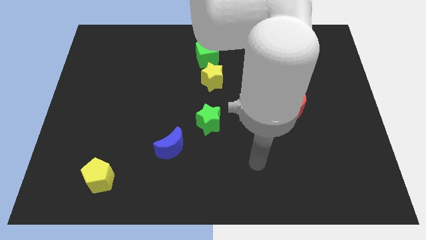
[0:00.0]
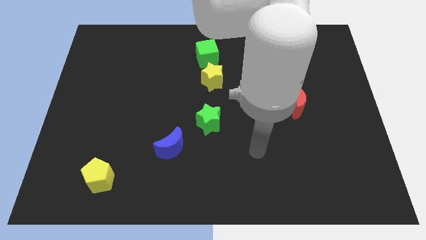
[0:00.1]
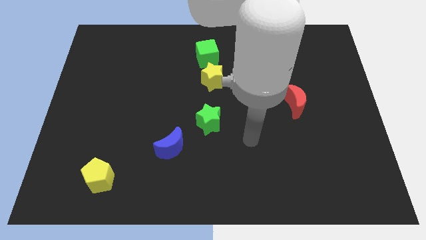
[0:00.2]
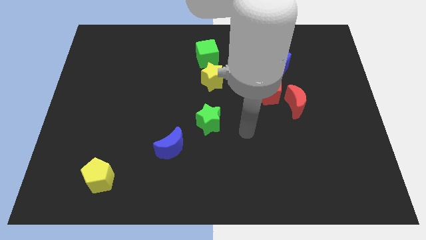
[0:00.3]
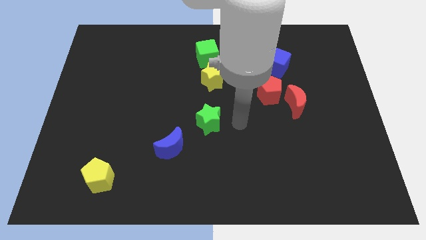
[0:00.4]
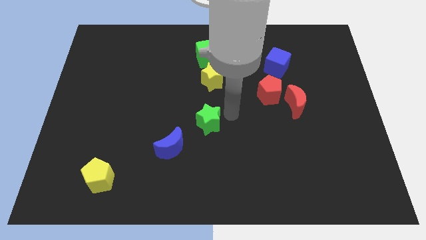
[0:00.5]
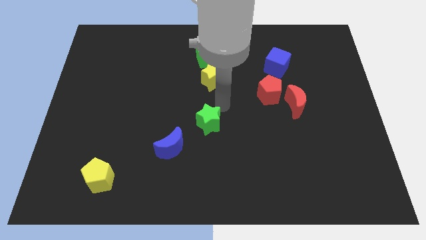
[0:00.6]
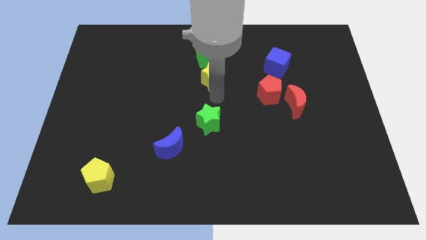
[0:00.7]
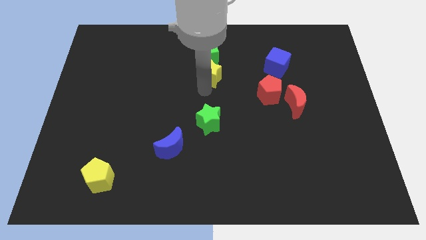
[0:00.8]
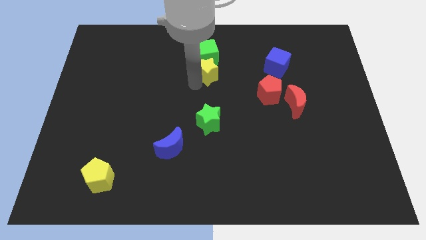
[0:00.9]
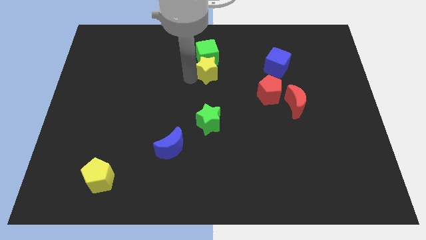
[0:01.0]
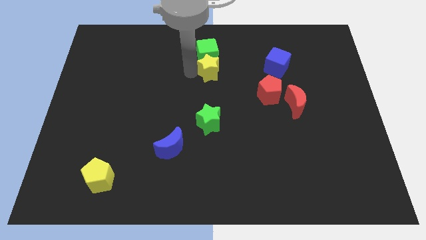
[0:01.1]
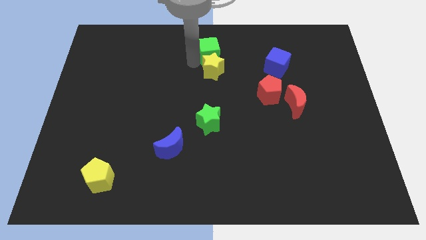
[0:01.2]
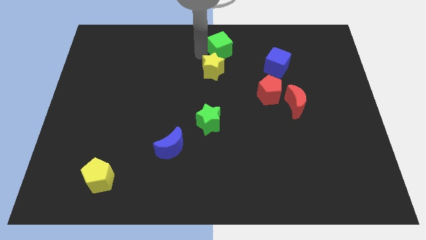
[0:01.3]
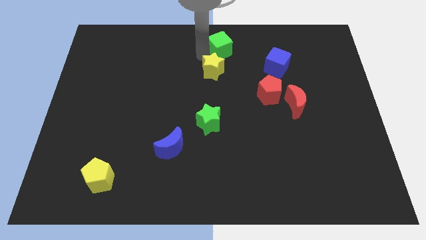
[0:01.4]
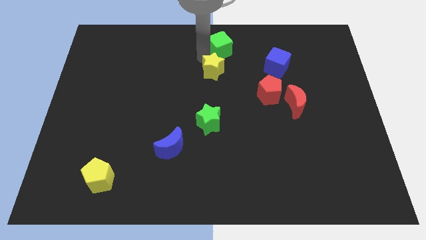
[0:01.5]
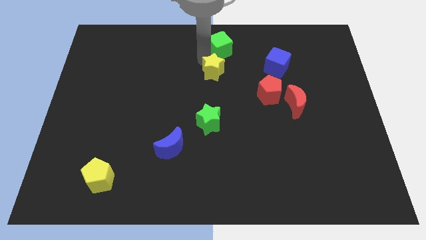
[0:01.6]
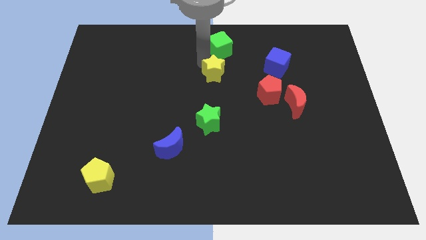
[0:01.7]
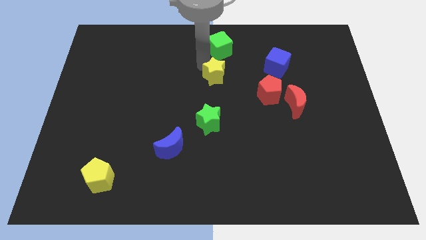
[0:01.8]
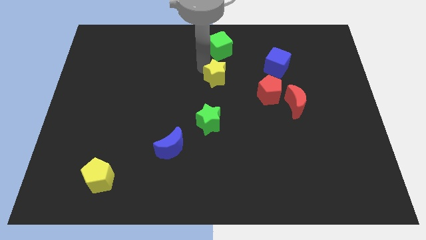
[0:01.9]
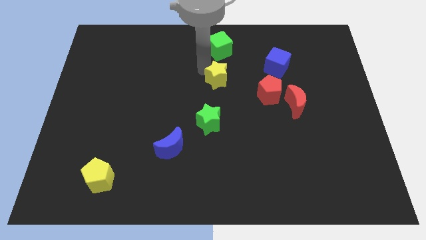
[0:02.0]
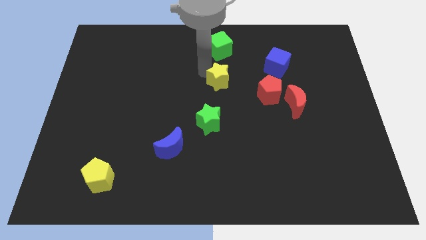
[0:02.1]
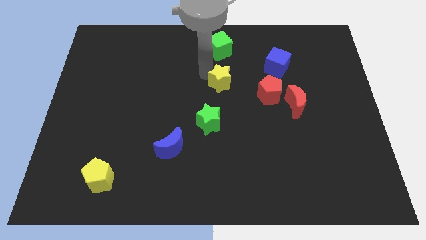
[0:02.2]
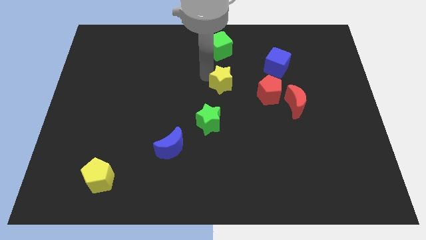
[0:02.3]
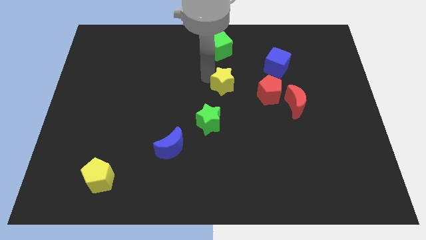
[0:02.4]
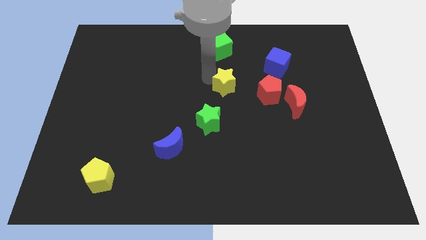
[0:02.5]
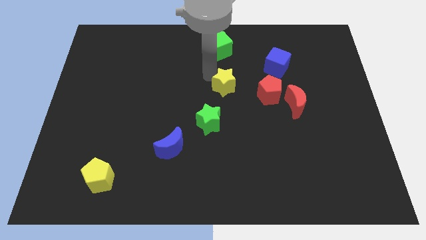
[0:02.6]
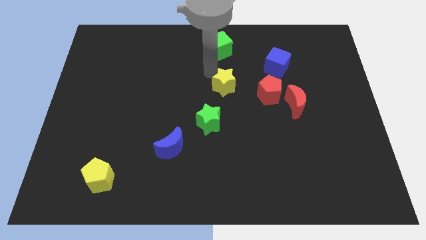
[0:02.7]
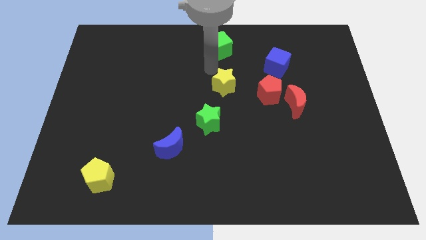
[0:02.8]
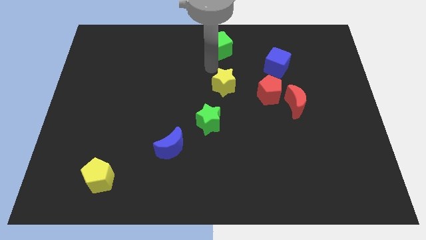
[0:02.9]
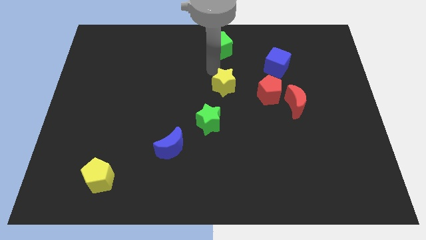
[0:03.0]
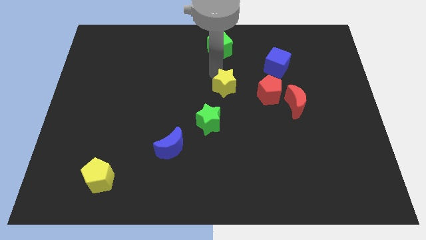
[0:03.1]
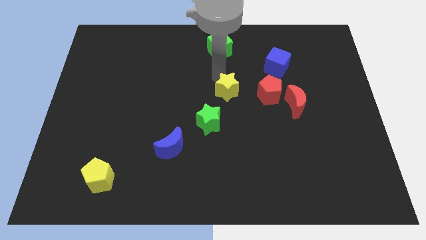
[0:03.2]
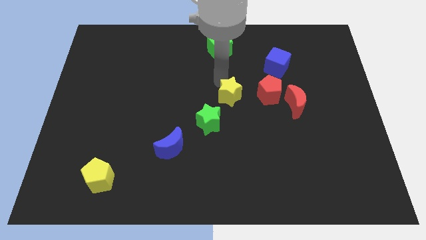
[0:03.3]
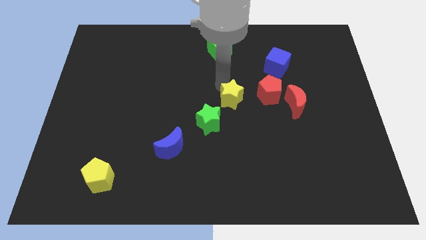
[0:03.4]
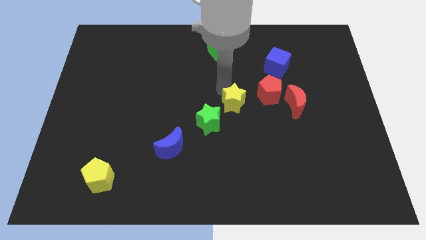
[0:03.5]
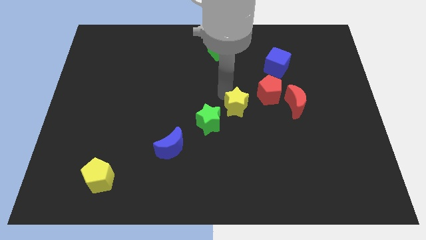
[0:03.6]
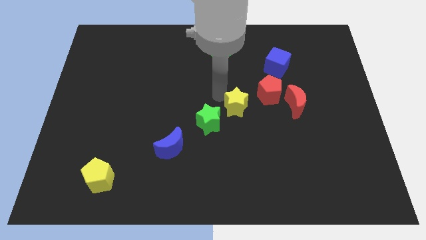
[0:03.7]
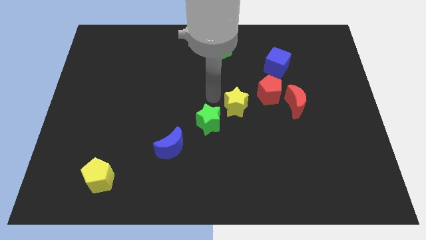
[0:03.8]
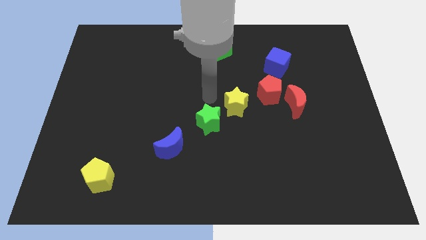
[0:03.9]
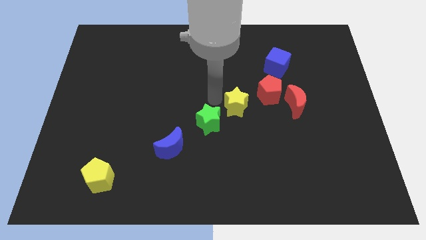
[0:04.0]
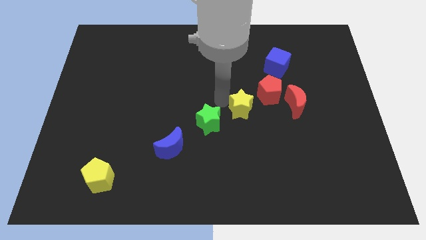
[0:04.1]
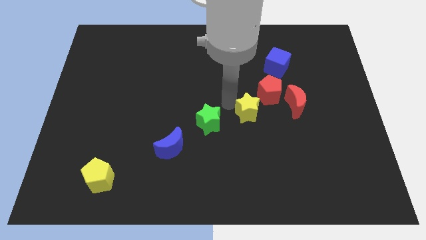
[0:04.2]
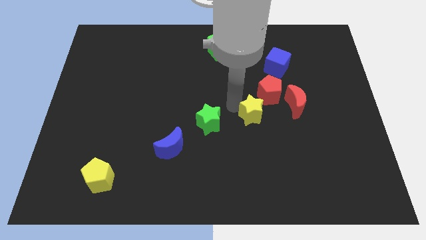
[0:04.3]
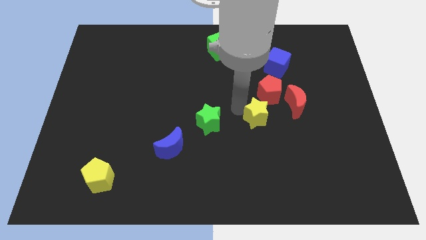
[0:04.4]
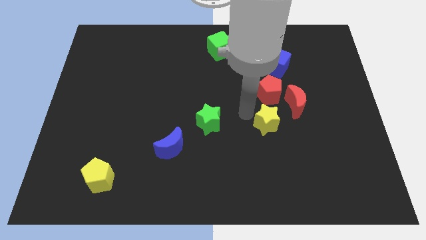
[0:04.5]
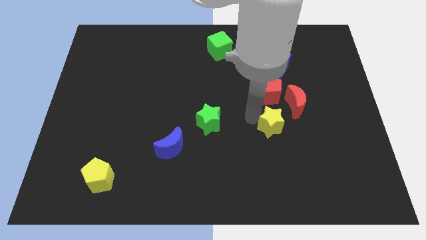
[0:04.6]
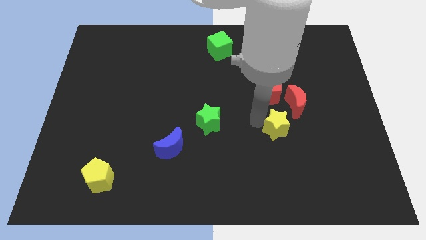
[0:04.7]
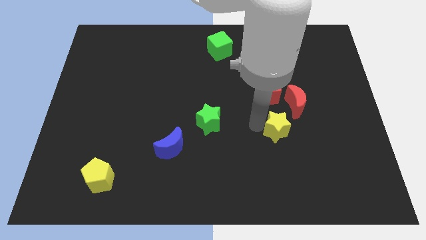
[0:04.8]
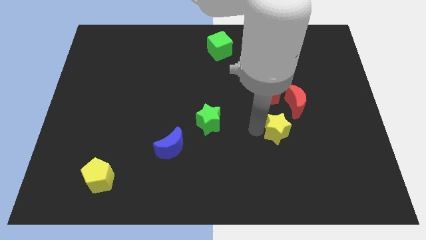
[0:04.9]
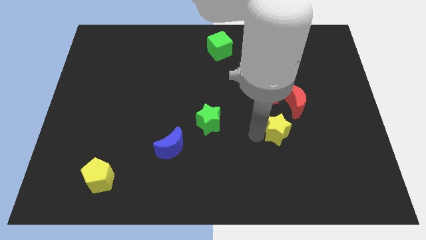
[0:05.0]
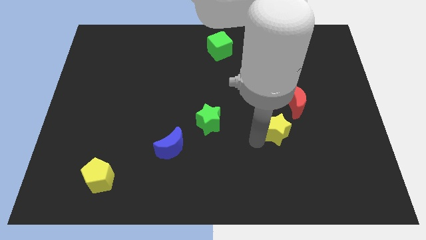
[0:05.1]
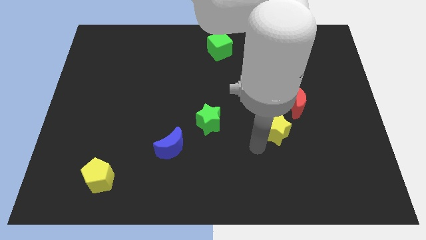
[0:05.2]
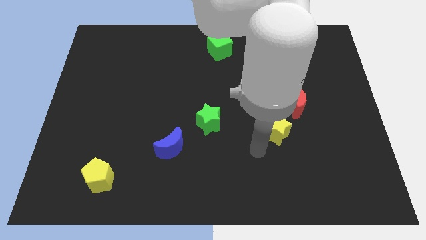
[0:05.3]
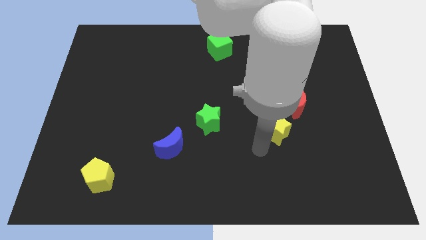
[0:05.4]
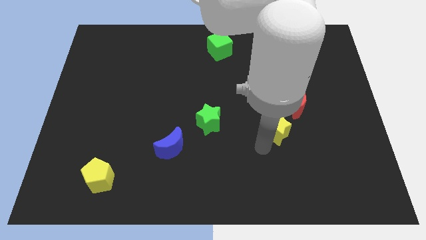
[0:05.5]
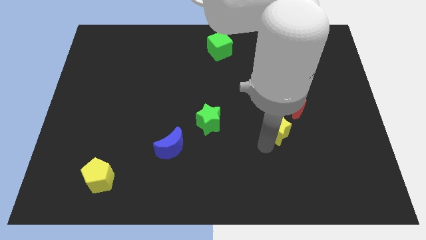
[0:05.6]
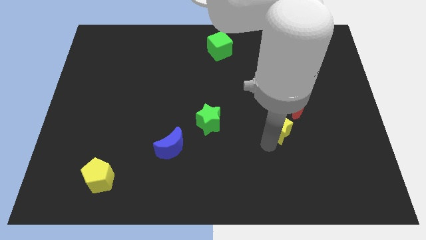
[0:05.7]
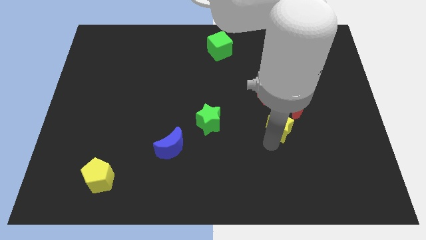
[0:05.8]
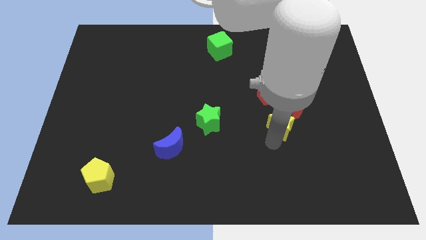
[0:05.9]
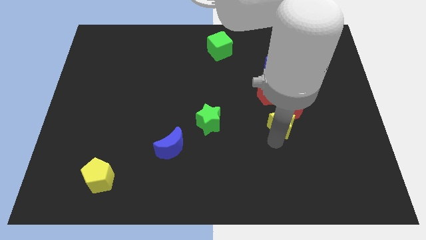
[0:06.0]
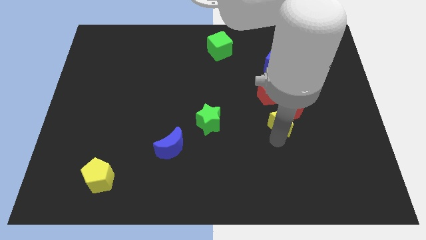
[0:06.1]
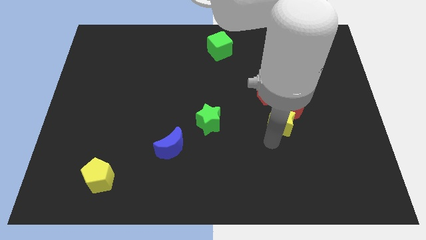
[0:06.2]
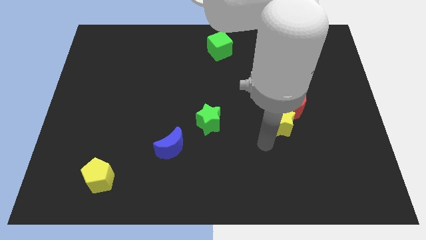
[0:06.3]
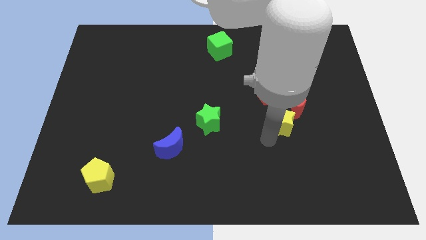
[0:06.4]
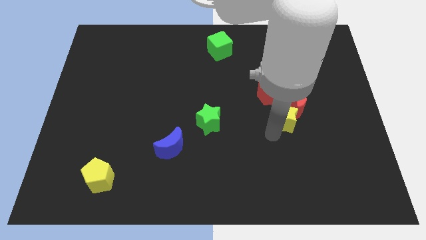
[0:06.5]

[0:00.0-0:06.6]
push the yellow star diagonally down and to the right of the red pentagon

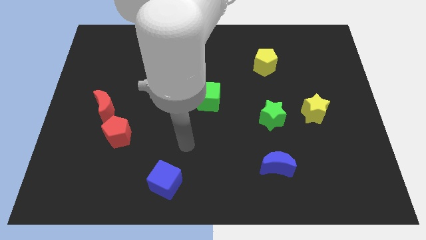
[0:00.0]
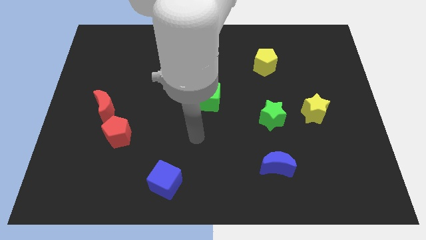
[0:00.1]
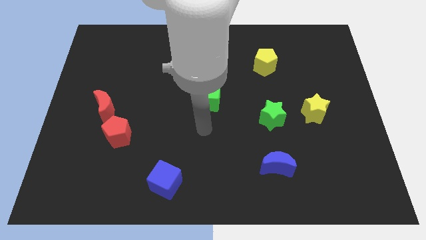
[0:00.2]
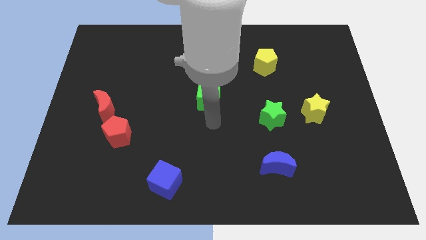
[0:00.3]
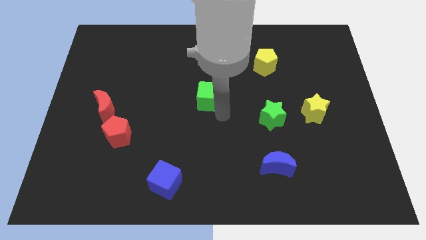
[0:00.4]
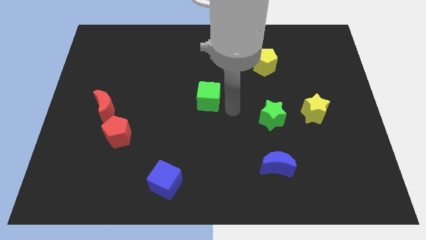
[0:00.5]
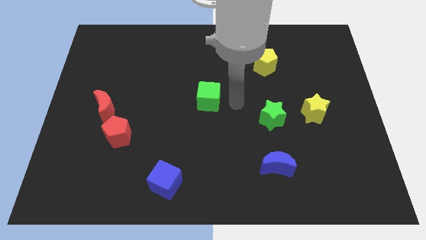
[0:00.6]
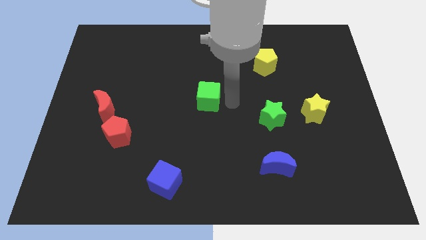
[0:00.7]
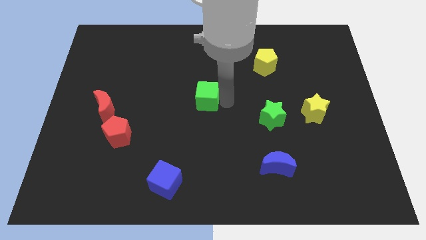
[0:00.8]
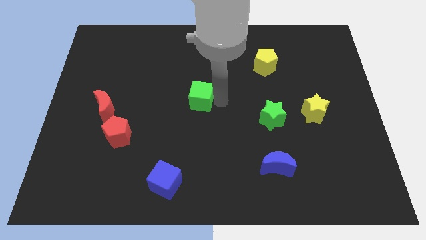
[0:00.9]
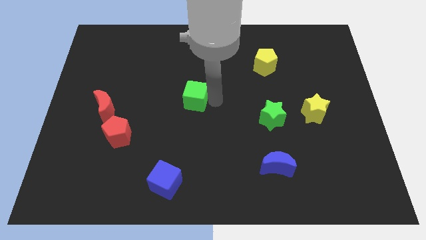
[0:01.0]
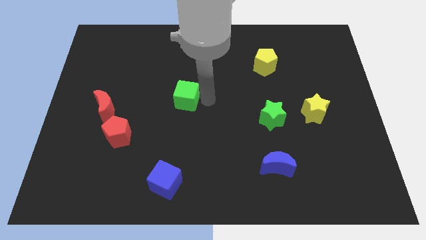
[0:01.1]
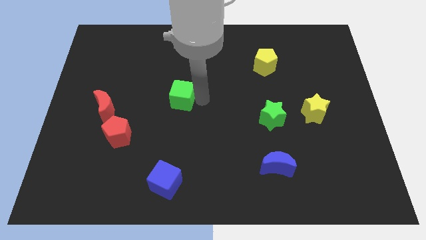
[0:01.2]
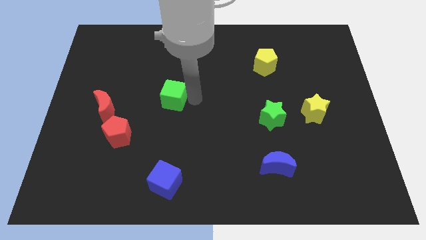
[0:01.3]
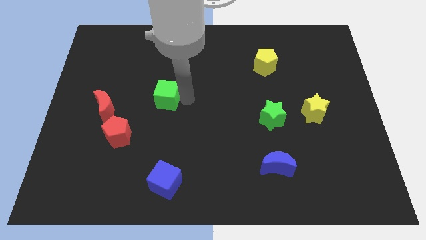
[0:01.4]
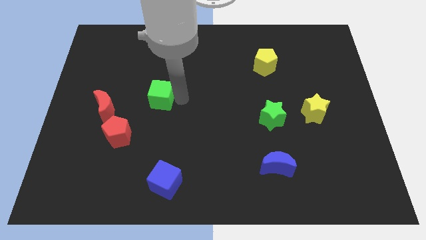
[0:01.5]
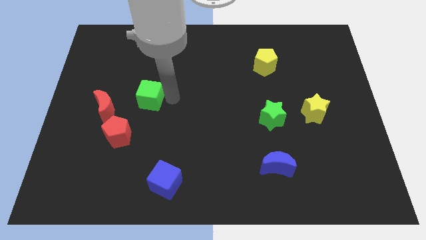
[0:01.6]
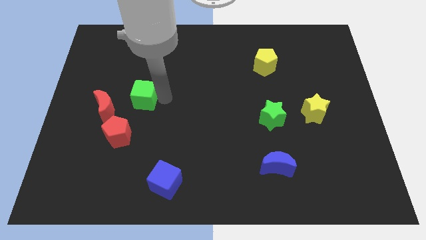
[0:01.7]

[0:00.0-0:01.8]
put the green cube to the top side of the red pentagon
